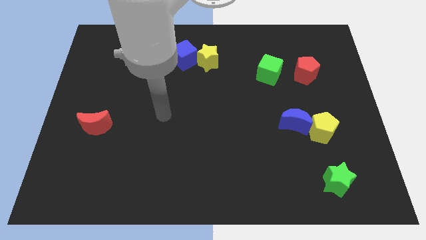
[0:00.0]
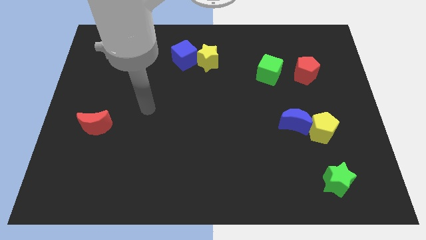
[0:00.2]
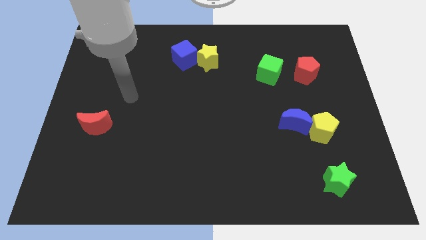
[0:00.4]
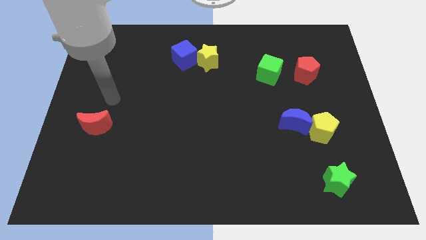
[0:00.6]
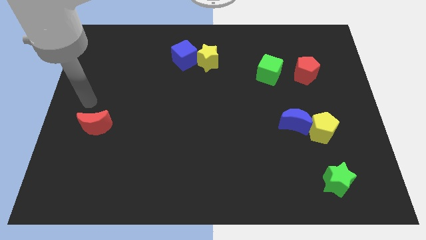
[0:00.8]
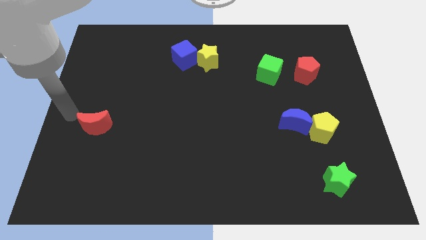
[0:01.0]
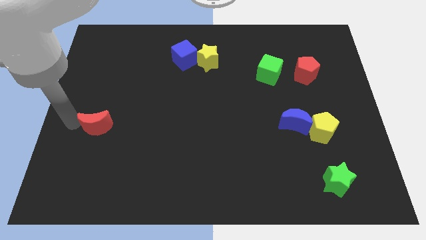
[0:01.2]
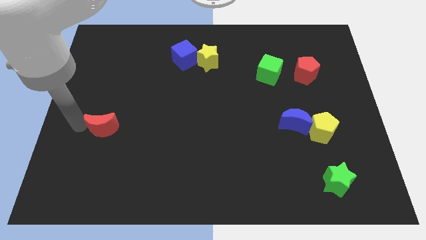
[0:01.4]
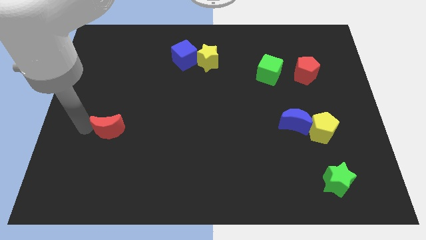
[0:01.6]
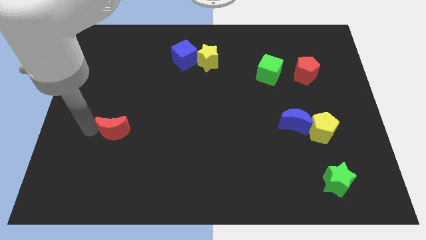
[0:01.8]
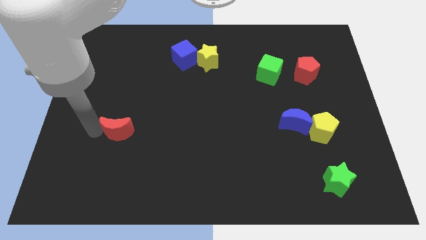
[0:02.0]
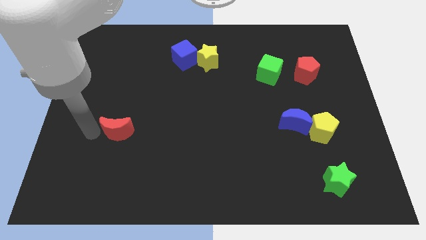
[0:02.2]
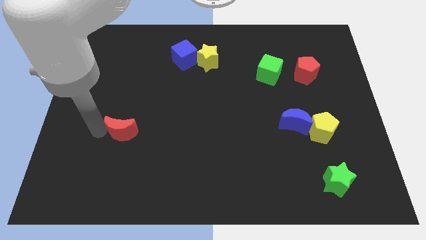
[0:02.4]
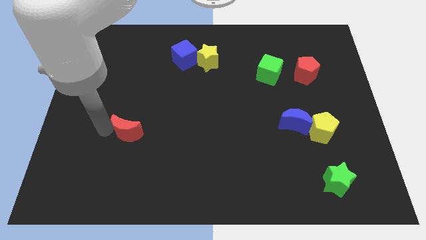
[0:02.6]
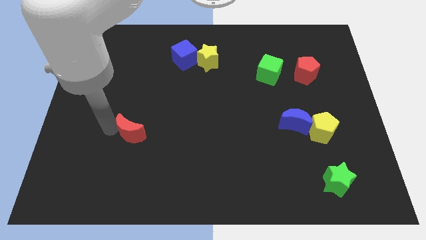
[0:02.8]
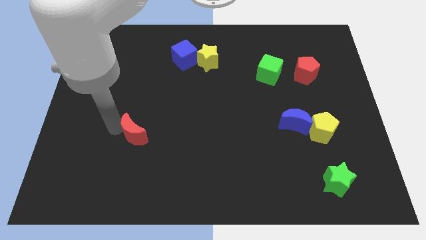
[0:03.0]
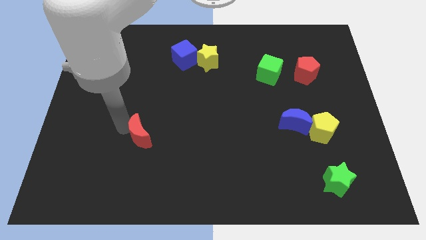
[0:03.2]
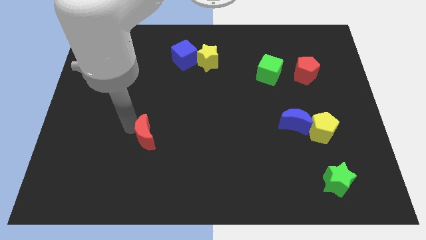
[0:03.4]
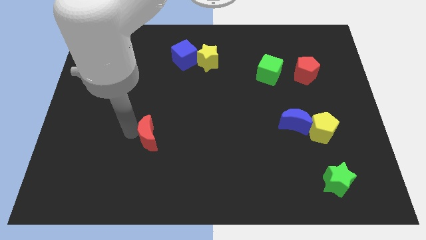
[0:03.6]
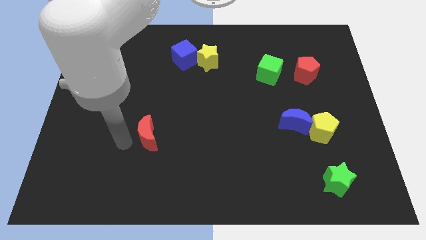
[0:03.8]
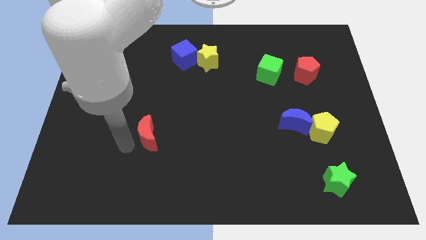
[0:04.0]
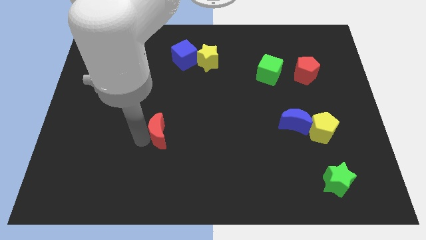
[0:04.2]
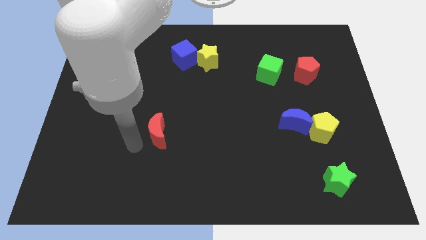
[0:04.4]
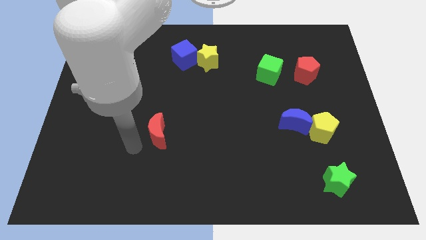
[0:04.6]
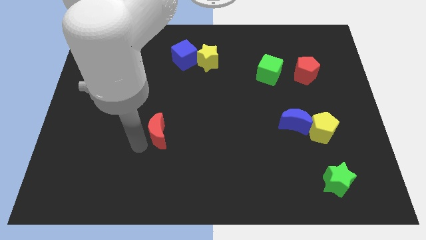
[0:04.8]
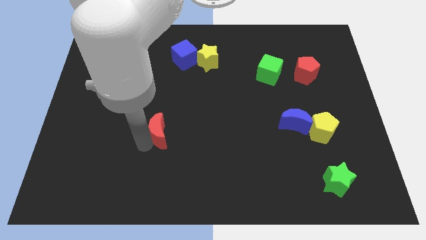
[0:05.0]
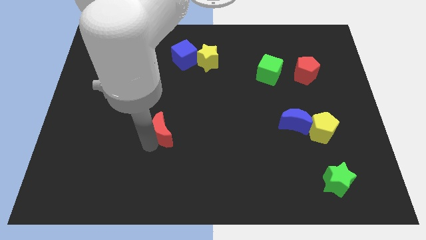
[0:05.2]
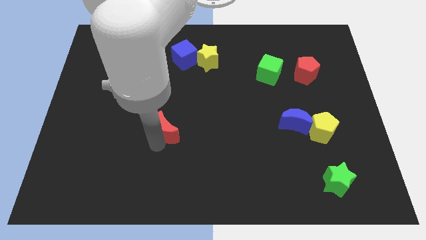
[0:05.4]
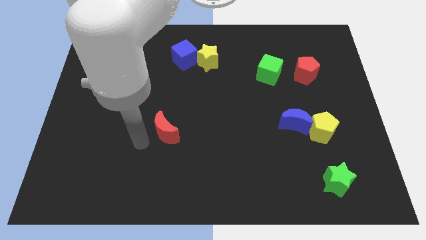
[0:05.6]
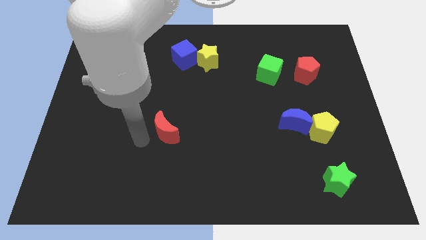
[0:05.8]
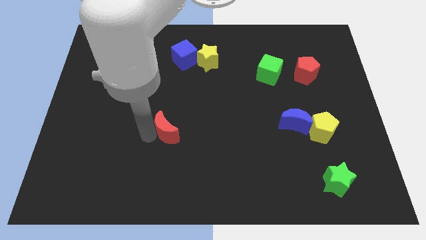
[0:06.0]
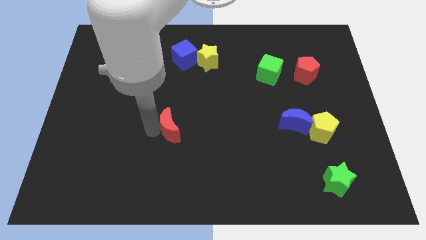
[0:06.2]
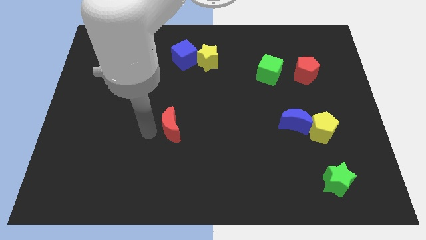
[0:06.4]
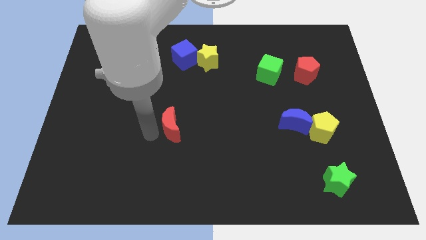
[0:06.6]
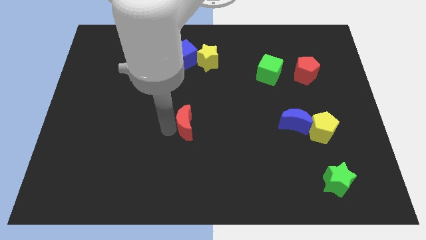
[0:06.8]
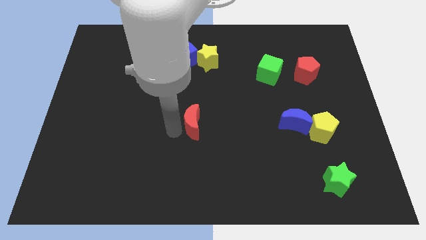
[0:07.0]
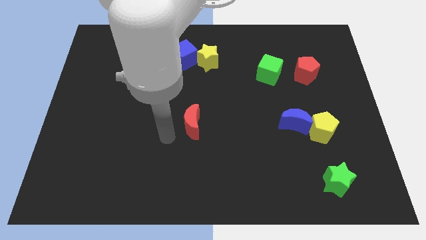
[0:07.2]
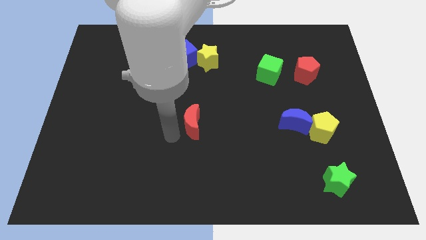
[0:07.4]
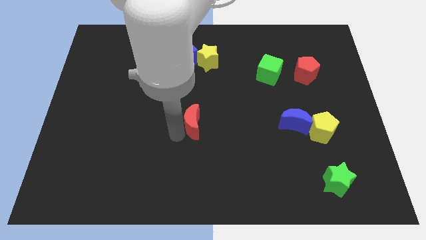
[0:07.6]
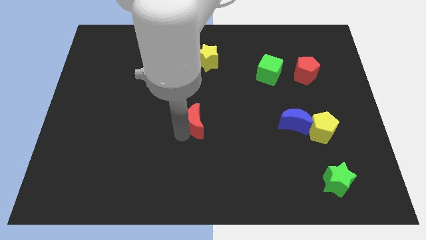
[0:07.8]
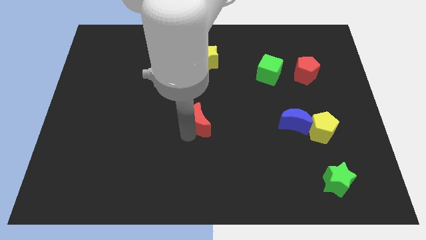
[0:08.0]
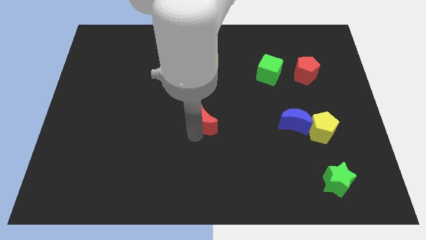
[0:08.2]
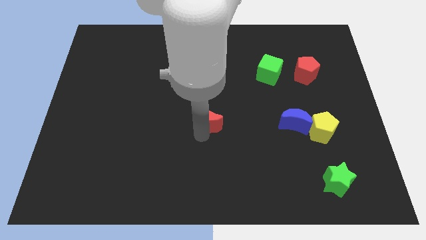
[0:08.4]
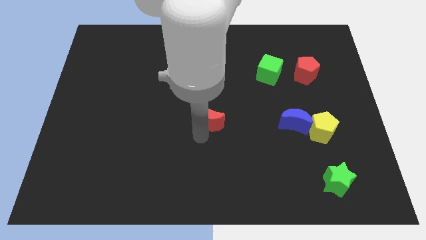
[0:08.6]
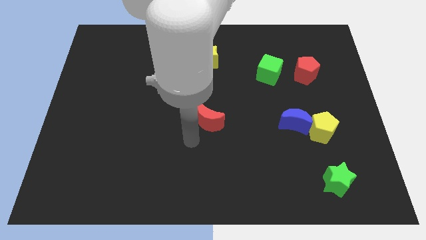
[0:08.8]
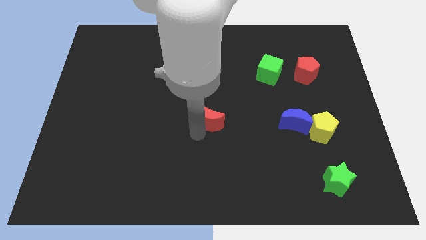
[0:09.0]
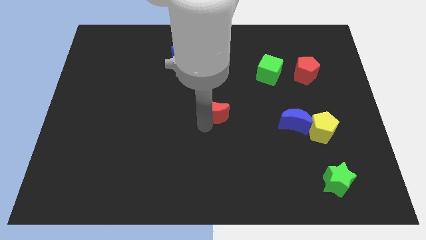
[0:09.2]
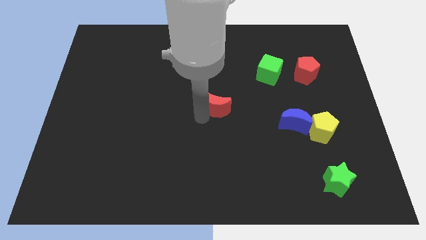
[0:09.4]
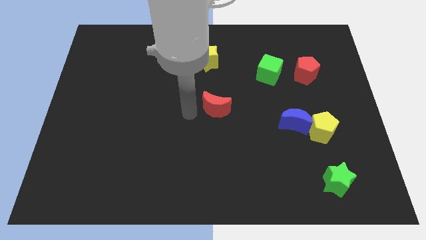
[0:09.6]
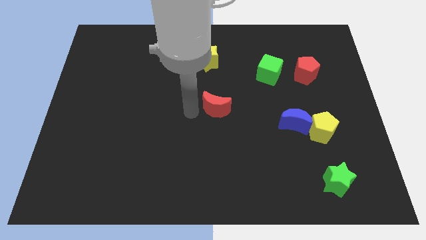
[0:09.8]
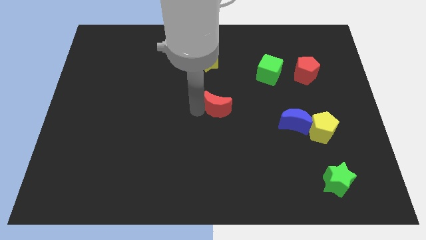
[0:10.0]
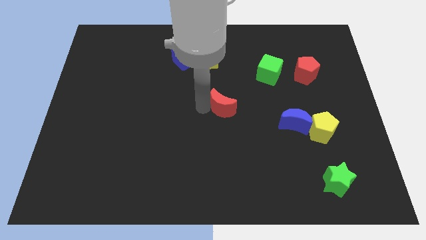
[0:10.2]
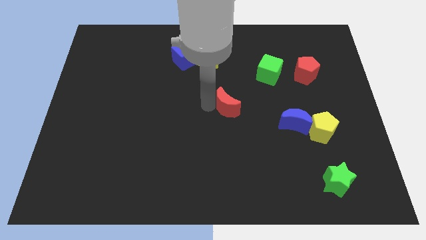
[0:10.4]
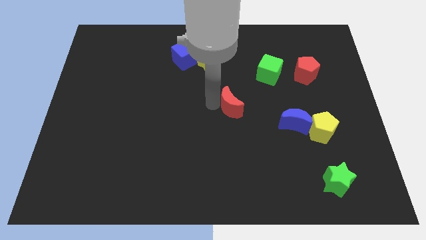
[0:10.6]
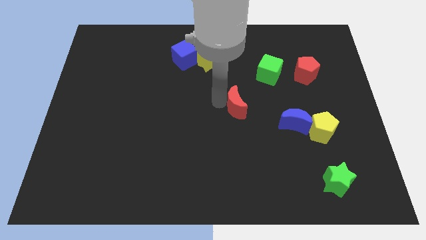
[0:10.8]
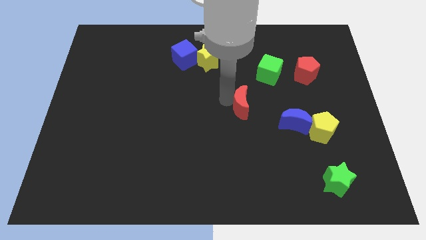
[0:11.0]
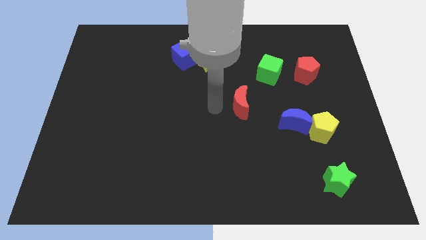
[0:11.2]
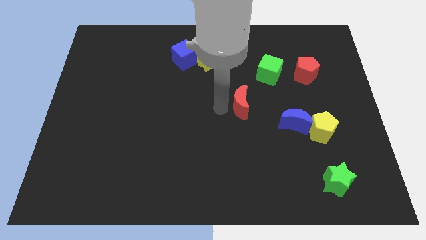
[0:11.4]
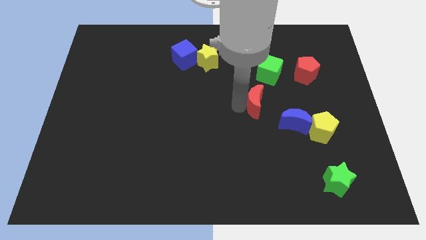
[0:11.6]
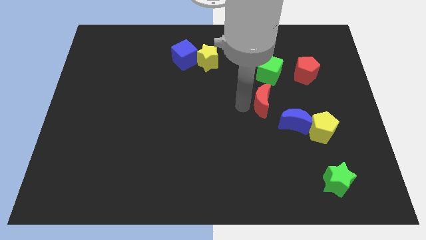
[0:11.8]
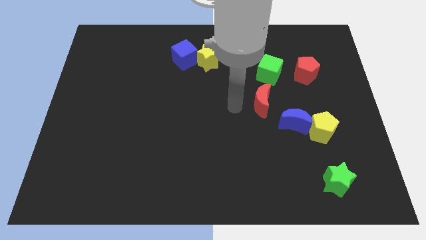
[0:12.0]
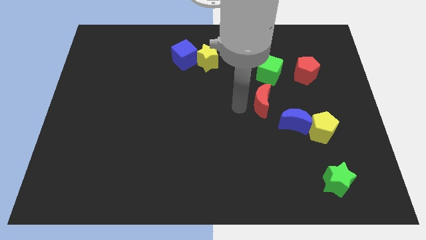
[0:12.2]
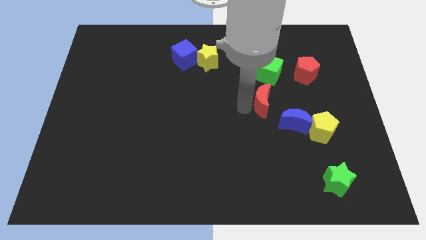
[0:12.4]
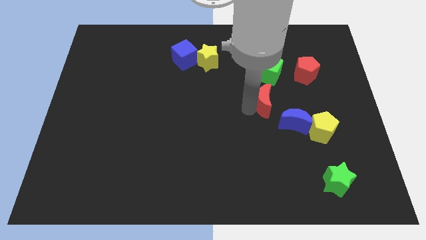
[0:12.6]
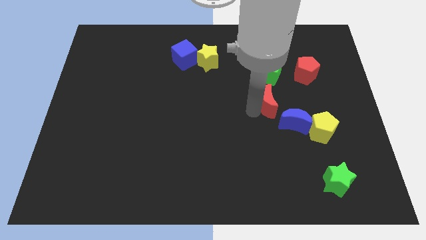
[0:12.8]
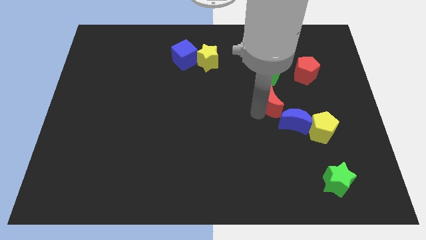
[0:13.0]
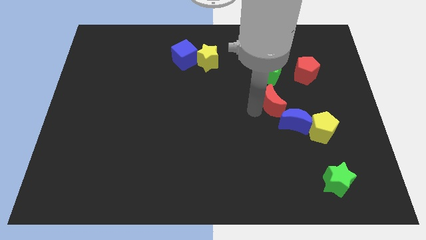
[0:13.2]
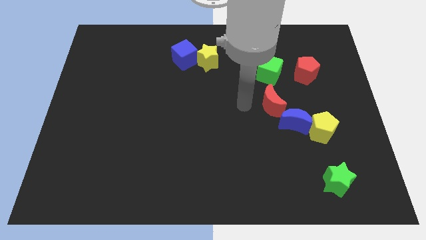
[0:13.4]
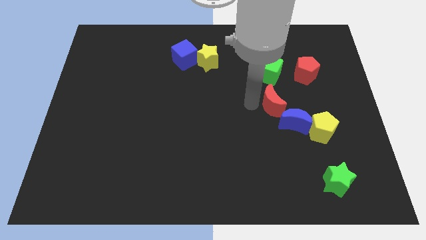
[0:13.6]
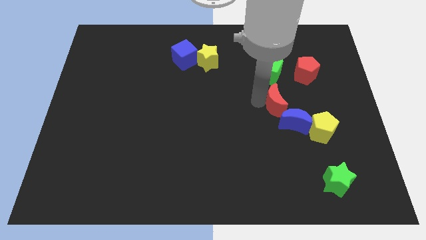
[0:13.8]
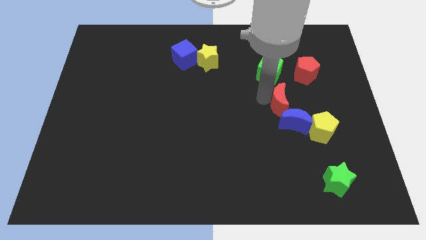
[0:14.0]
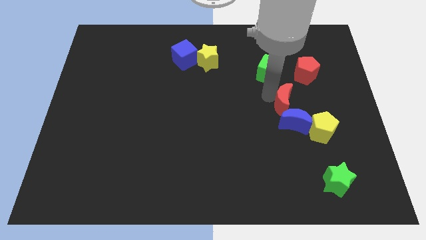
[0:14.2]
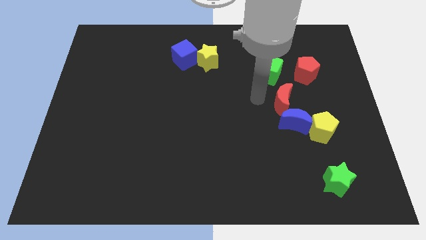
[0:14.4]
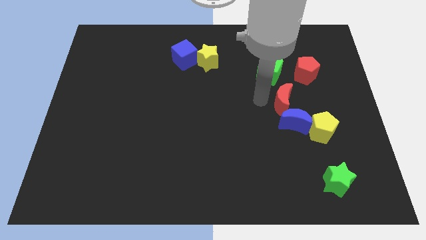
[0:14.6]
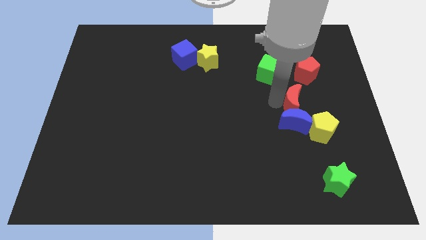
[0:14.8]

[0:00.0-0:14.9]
push the red moon below the red pentagon
